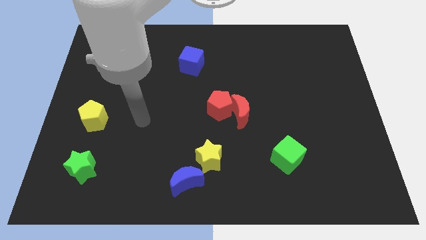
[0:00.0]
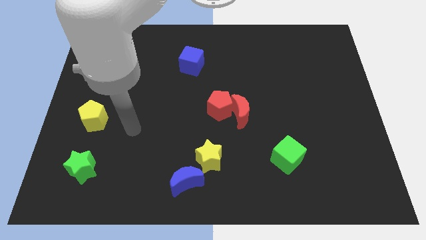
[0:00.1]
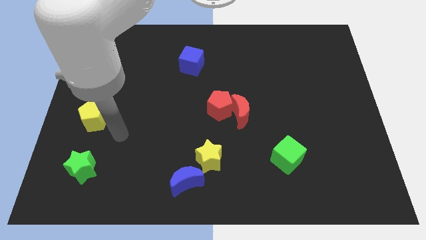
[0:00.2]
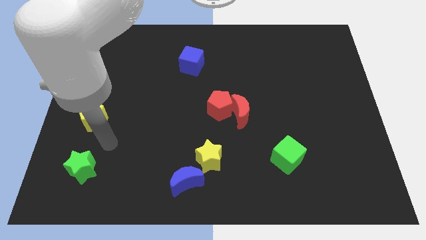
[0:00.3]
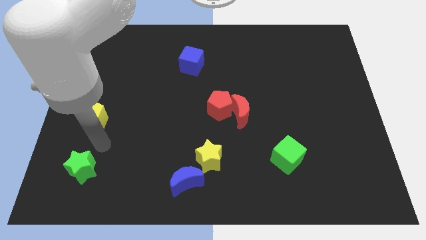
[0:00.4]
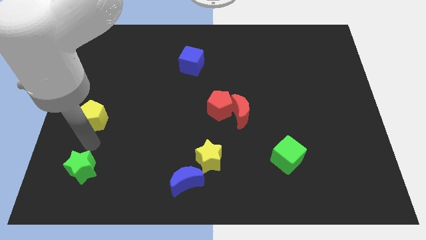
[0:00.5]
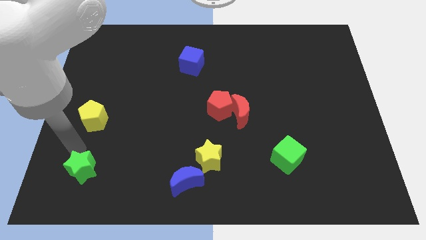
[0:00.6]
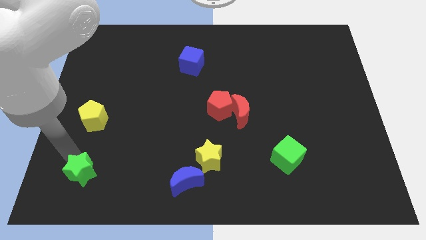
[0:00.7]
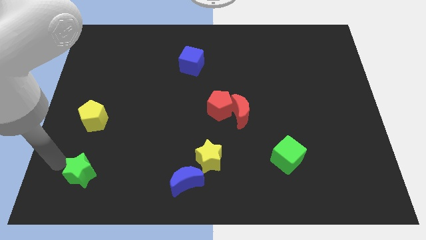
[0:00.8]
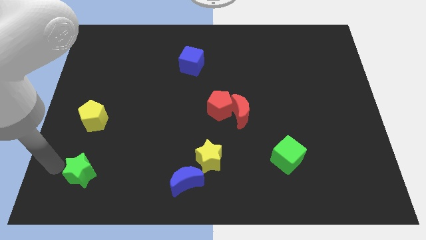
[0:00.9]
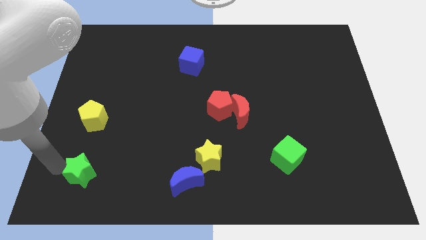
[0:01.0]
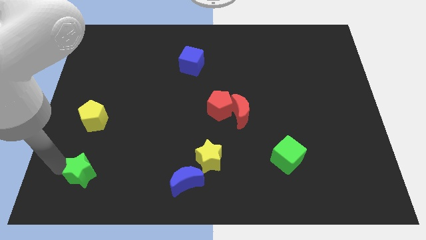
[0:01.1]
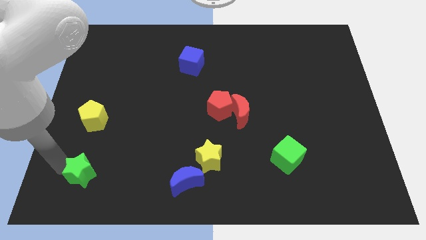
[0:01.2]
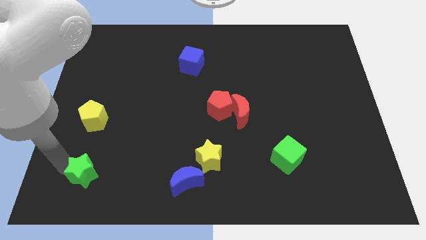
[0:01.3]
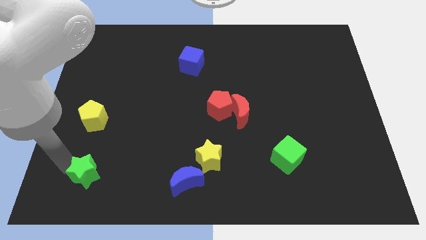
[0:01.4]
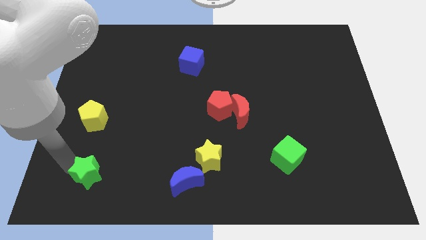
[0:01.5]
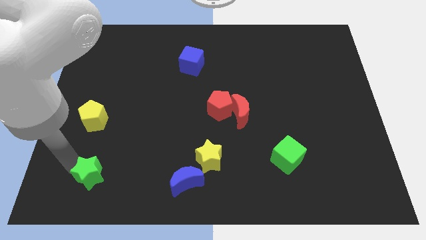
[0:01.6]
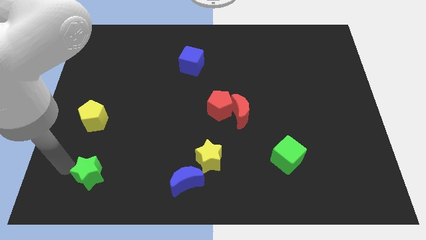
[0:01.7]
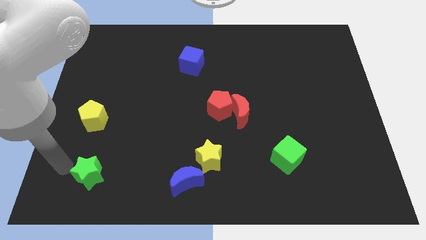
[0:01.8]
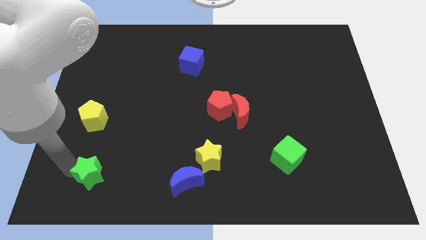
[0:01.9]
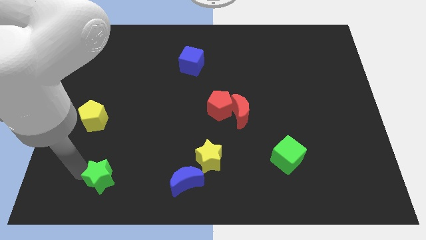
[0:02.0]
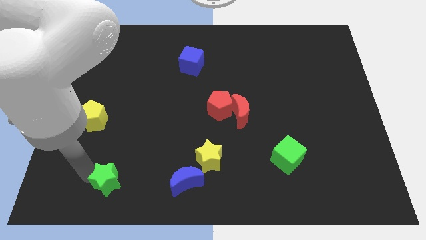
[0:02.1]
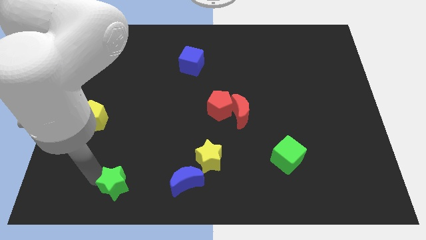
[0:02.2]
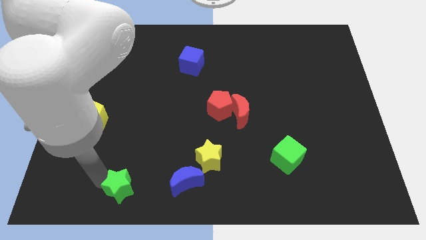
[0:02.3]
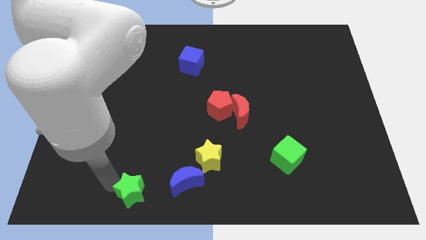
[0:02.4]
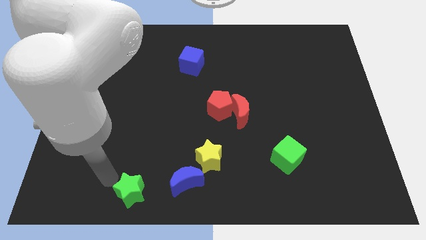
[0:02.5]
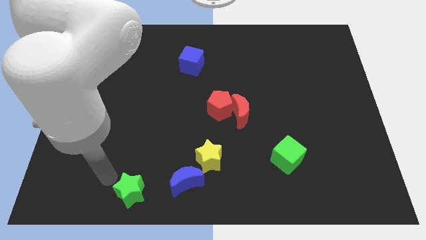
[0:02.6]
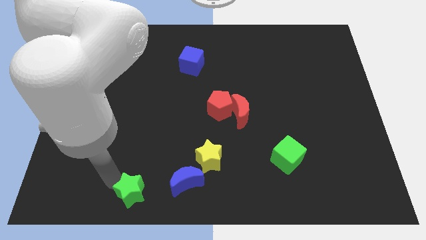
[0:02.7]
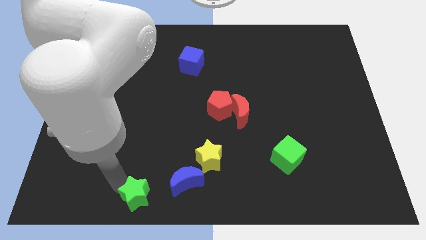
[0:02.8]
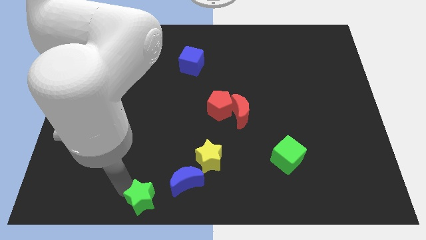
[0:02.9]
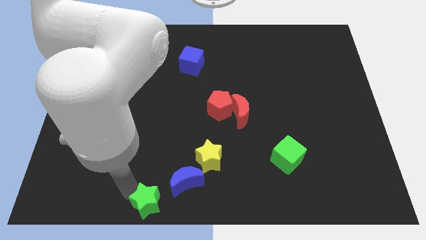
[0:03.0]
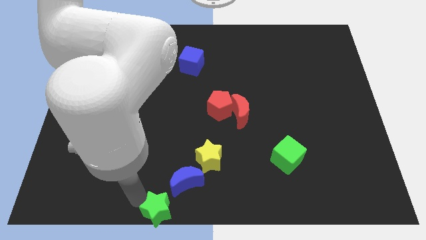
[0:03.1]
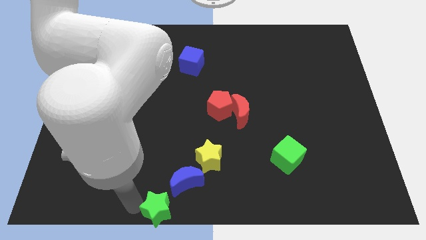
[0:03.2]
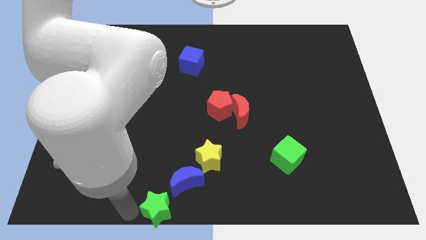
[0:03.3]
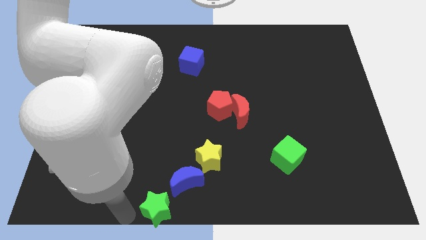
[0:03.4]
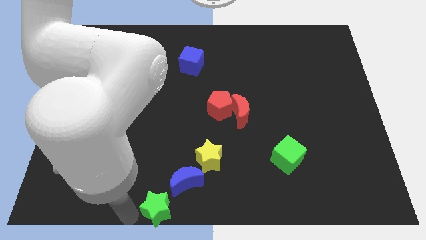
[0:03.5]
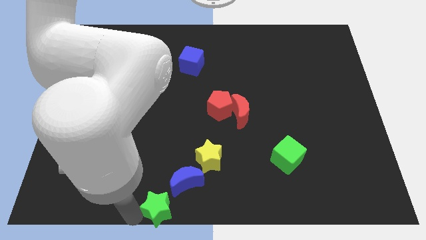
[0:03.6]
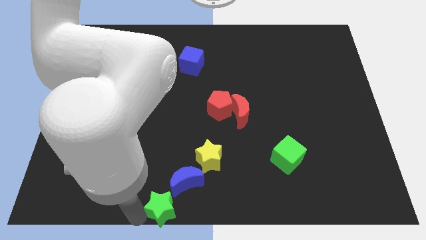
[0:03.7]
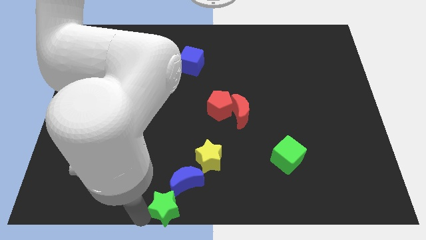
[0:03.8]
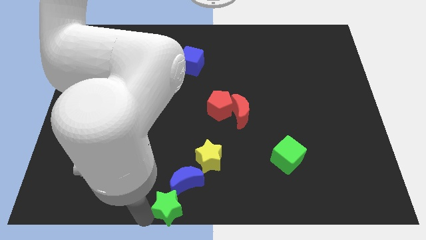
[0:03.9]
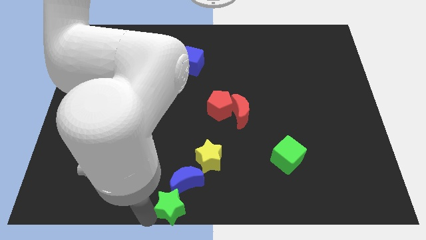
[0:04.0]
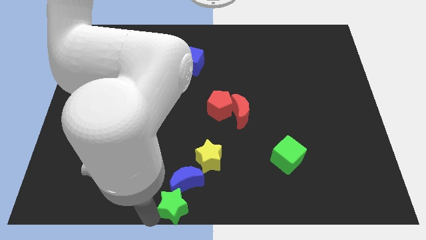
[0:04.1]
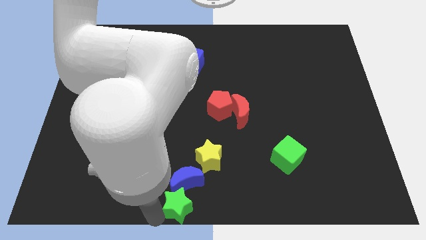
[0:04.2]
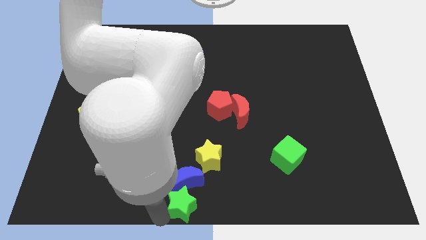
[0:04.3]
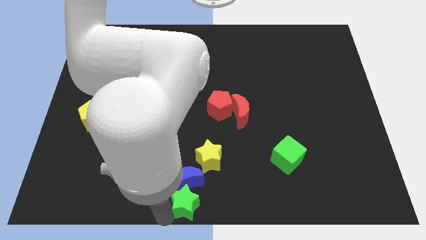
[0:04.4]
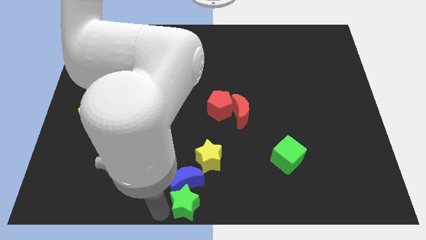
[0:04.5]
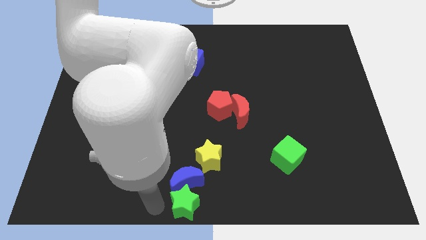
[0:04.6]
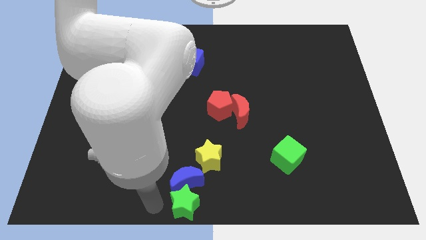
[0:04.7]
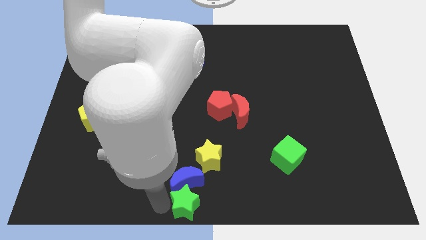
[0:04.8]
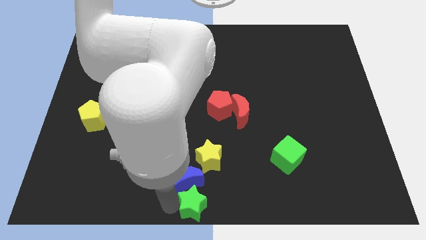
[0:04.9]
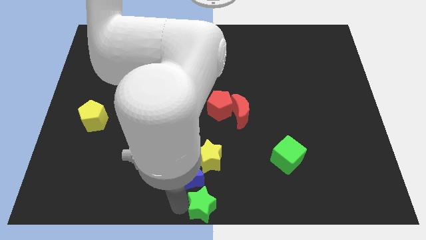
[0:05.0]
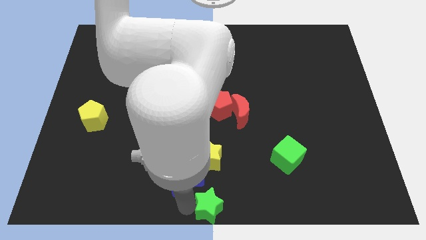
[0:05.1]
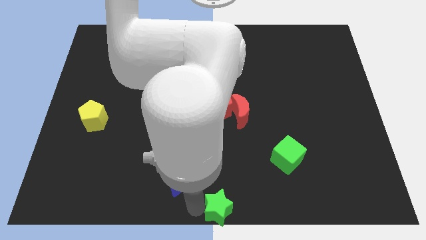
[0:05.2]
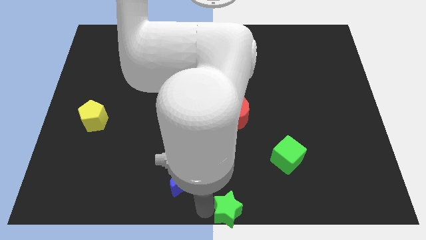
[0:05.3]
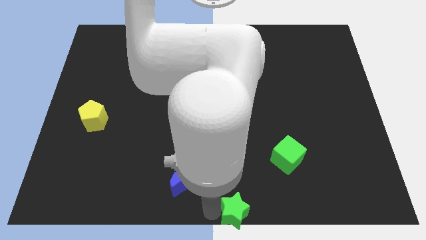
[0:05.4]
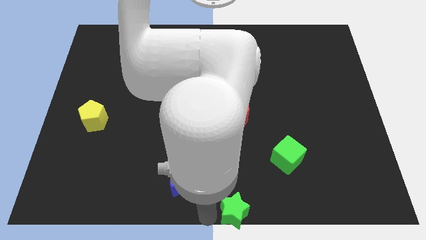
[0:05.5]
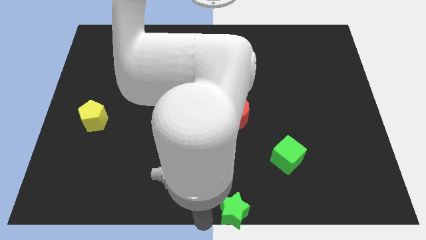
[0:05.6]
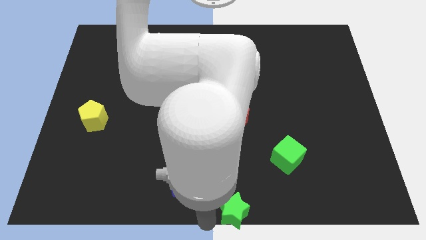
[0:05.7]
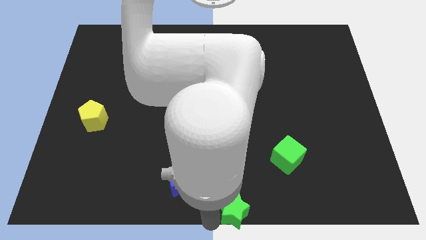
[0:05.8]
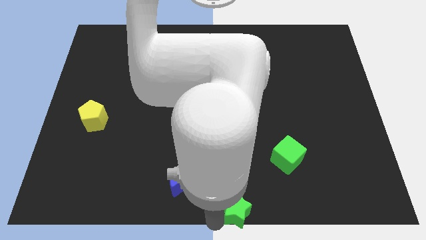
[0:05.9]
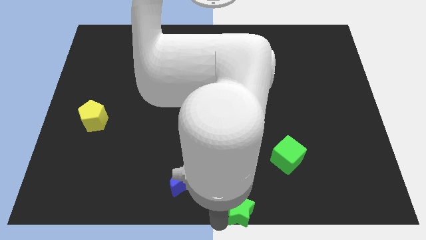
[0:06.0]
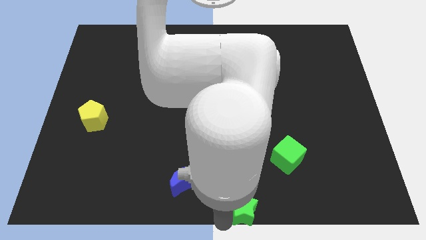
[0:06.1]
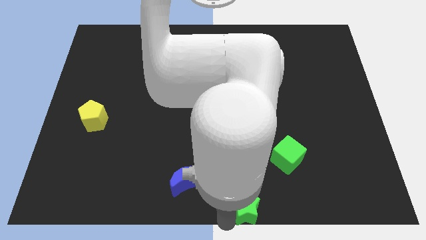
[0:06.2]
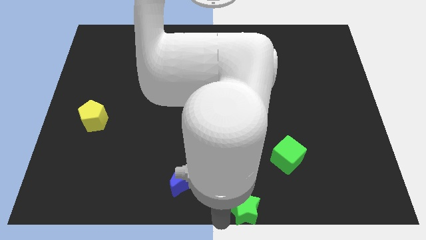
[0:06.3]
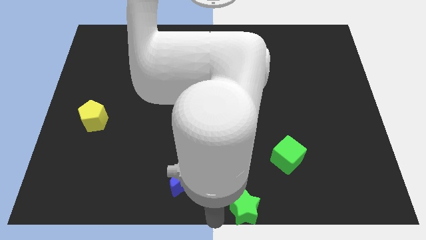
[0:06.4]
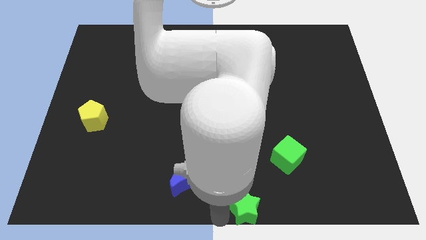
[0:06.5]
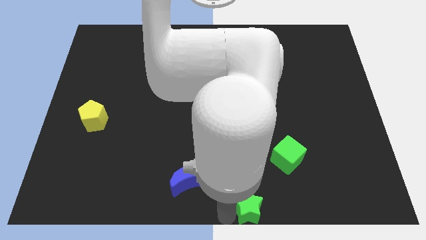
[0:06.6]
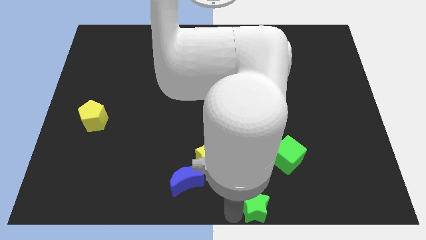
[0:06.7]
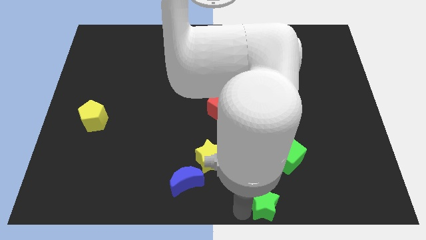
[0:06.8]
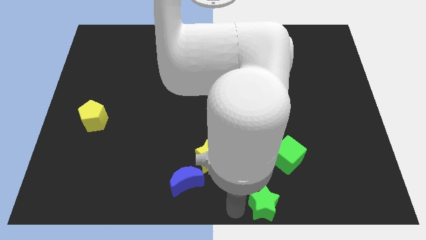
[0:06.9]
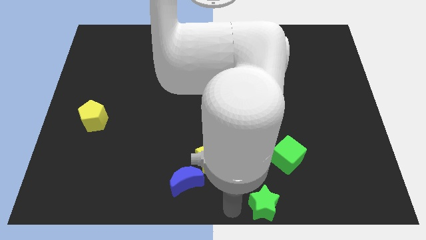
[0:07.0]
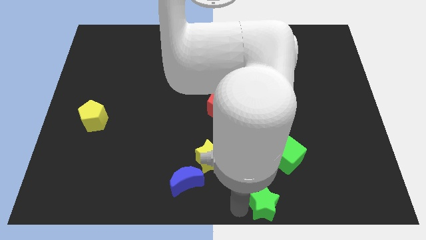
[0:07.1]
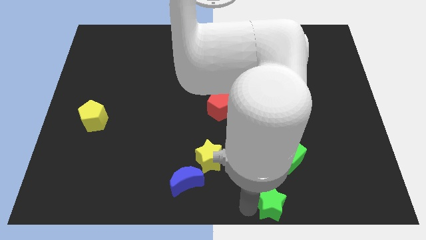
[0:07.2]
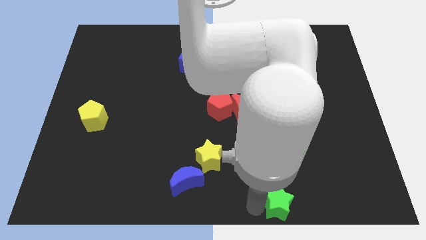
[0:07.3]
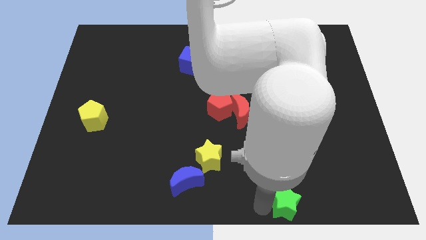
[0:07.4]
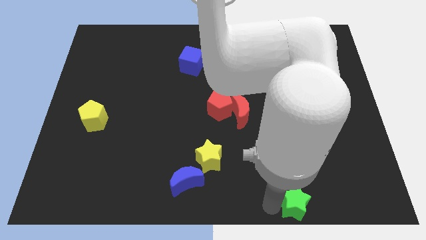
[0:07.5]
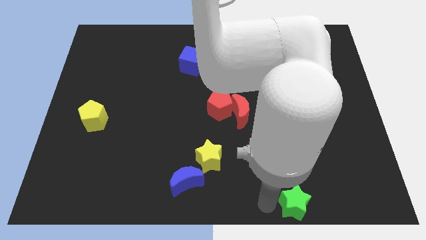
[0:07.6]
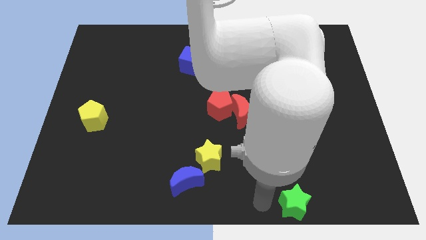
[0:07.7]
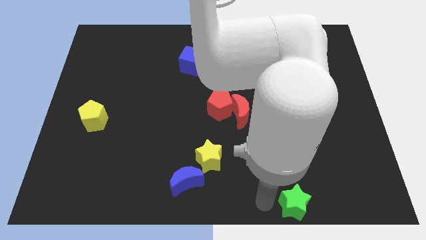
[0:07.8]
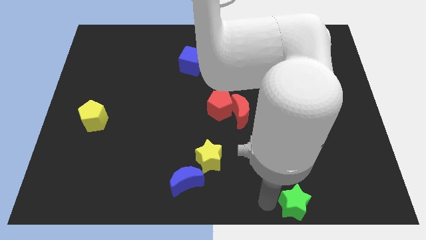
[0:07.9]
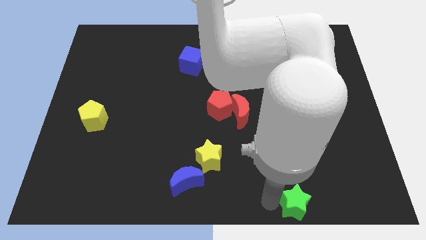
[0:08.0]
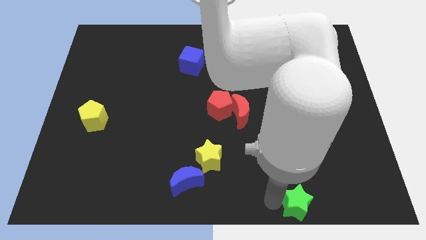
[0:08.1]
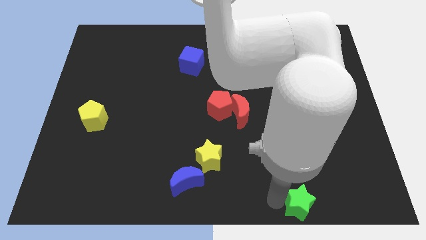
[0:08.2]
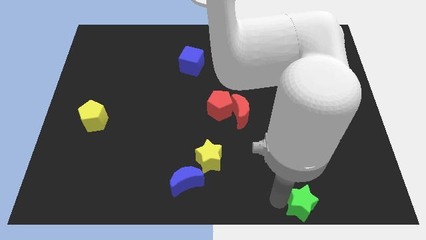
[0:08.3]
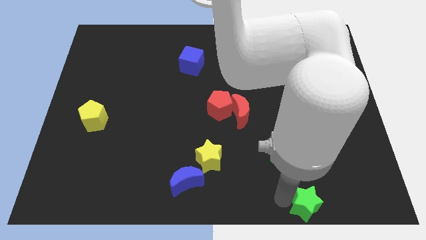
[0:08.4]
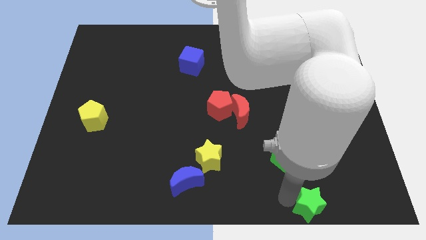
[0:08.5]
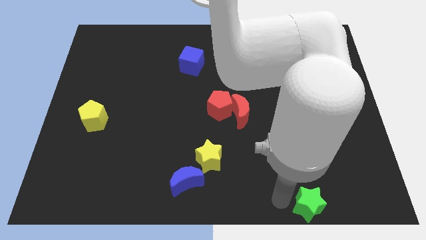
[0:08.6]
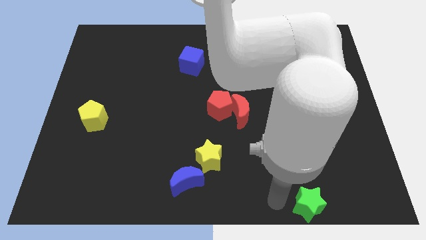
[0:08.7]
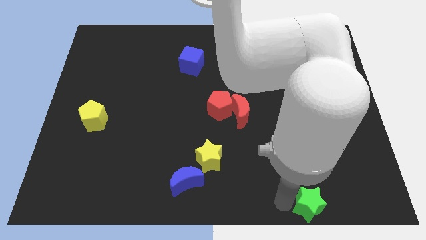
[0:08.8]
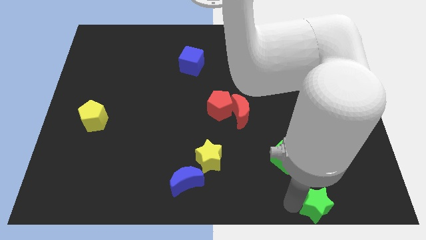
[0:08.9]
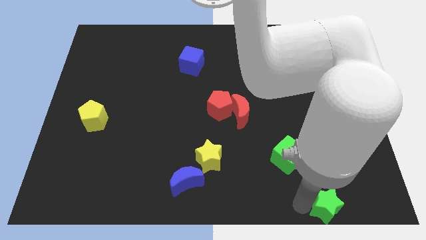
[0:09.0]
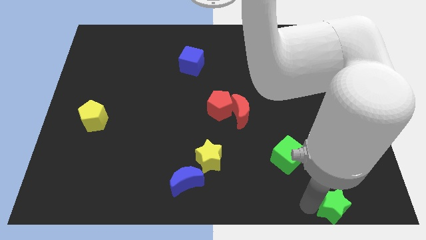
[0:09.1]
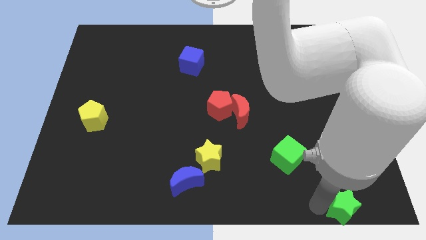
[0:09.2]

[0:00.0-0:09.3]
move the green star to the bottom right corner
